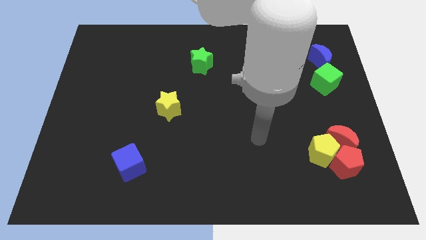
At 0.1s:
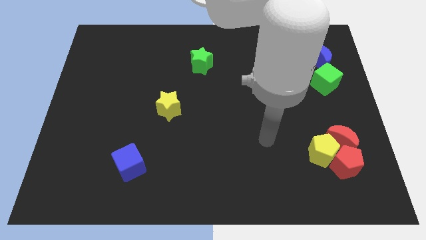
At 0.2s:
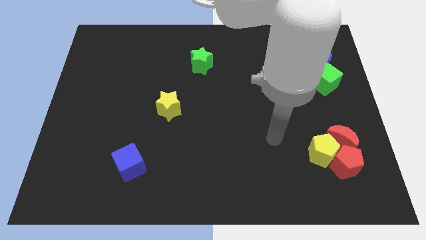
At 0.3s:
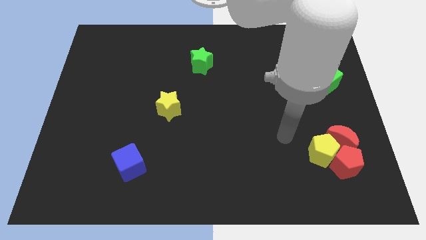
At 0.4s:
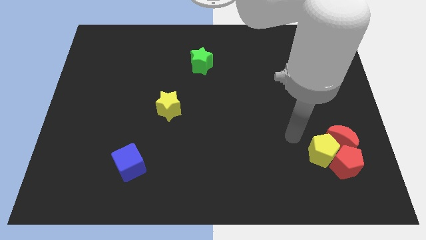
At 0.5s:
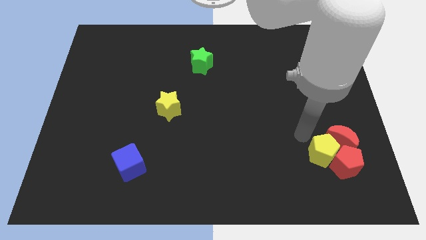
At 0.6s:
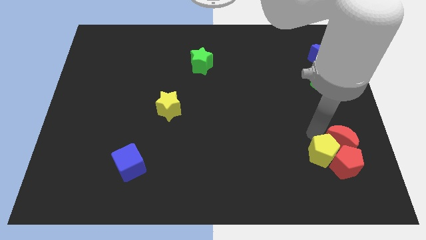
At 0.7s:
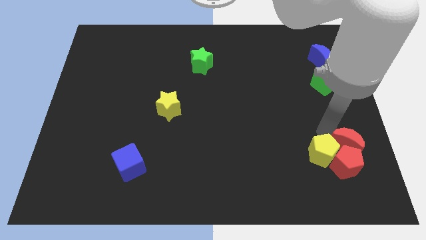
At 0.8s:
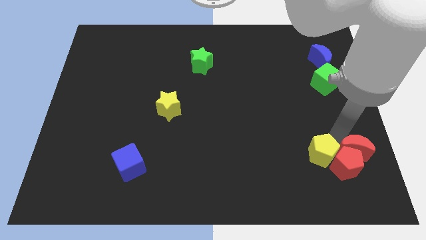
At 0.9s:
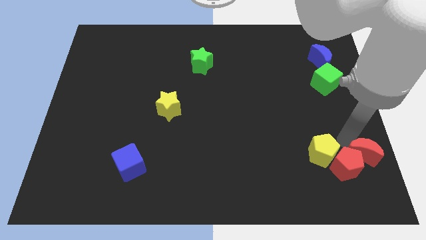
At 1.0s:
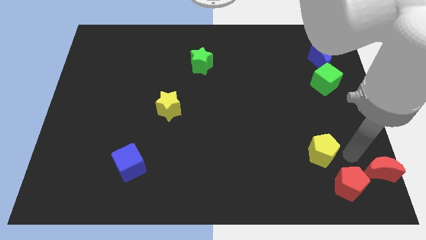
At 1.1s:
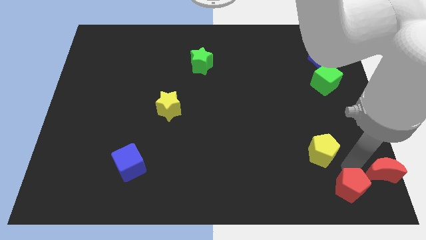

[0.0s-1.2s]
separate the yellow pentagon from the red pentagon and red moon

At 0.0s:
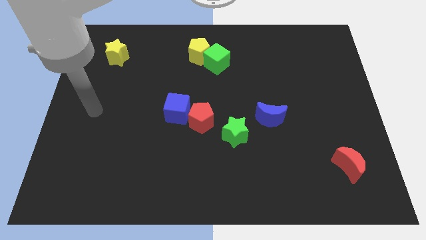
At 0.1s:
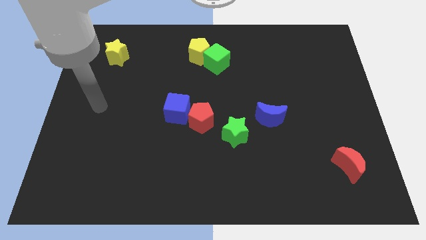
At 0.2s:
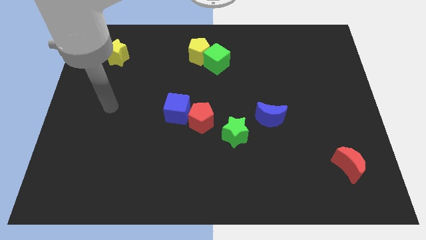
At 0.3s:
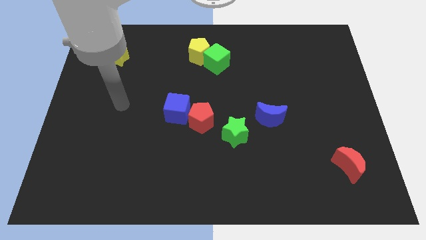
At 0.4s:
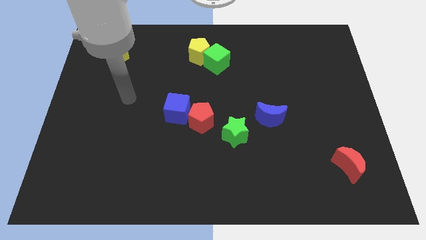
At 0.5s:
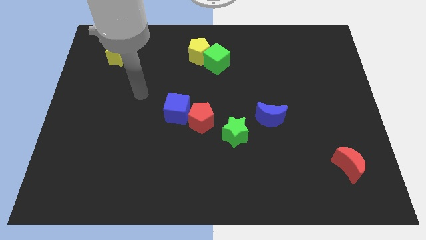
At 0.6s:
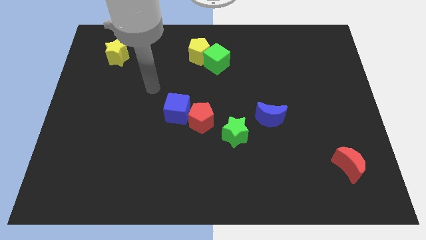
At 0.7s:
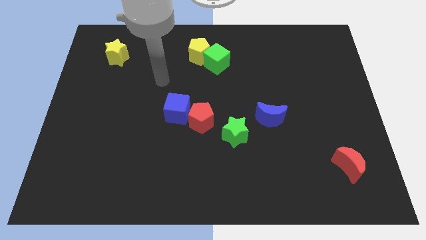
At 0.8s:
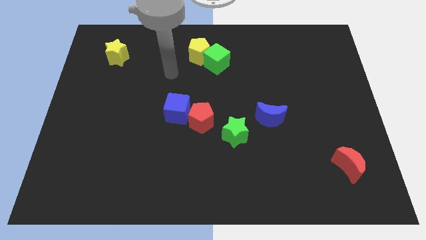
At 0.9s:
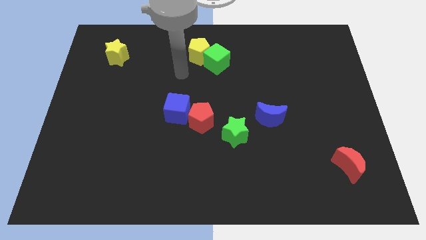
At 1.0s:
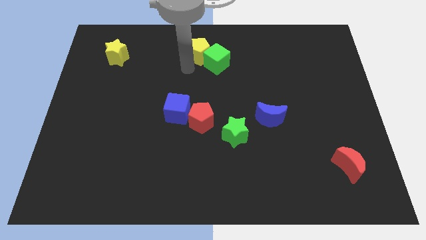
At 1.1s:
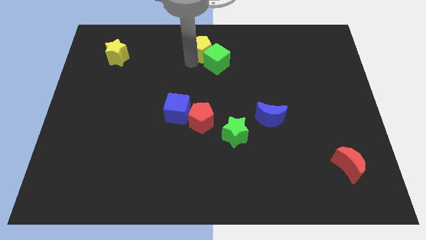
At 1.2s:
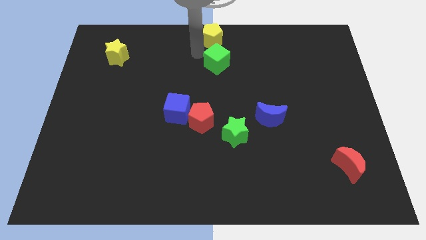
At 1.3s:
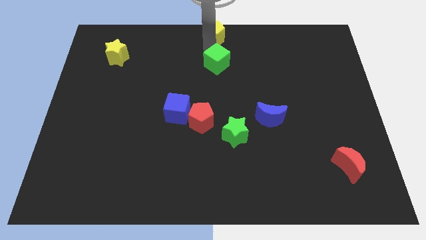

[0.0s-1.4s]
move the green cube away from the yellow pentagon

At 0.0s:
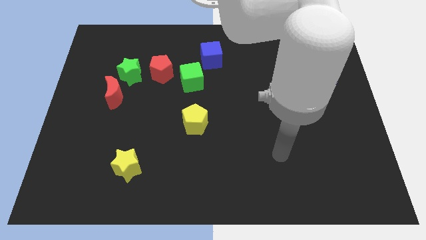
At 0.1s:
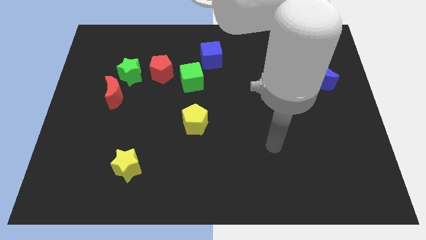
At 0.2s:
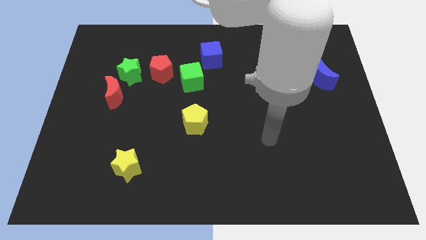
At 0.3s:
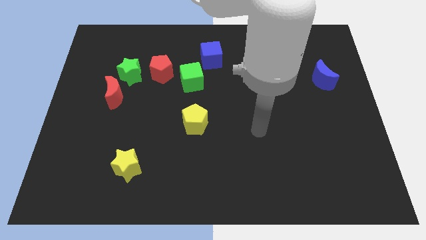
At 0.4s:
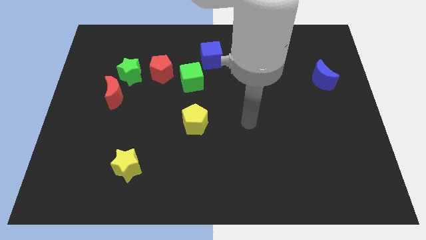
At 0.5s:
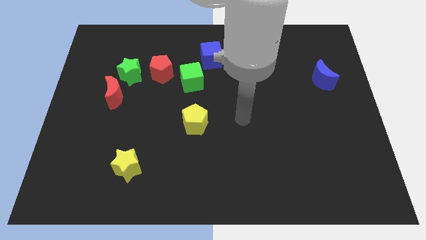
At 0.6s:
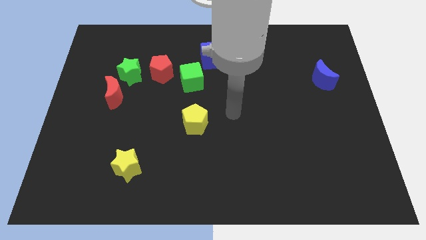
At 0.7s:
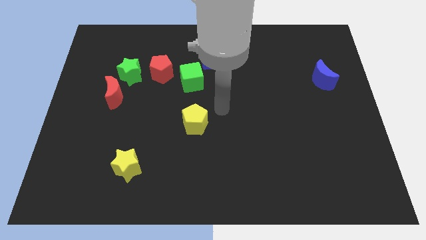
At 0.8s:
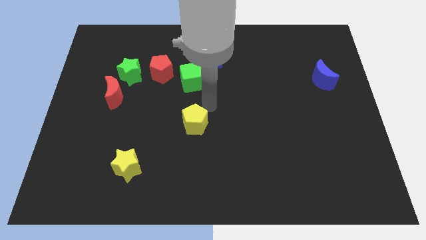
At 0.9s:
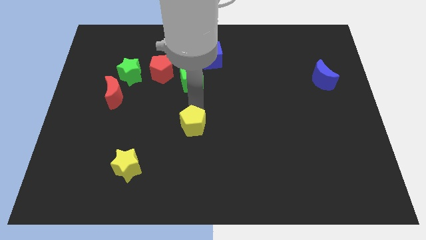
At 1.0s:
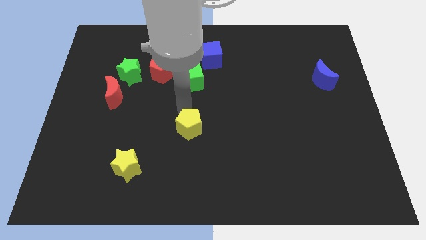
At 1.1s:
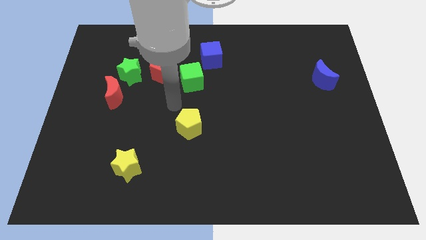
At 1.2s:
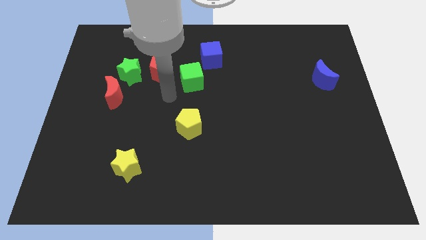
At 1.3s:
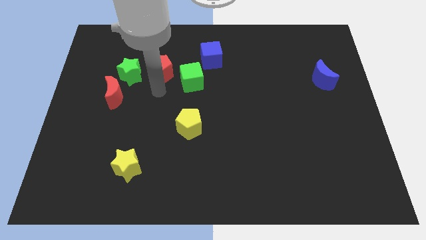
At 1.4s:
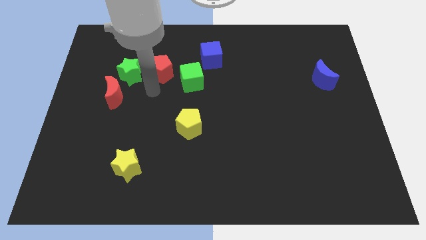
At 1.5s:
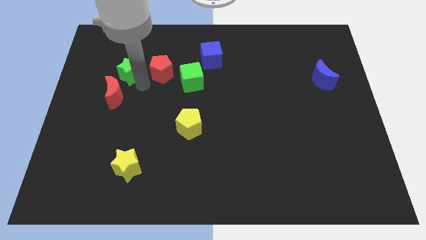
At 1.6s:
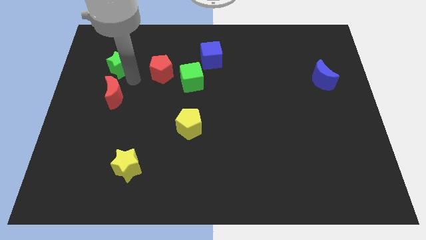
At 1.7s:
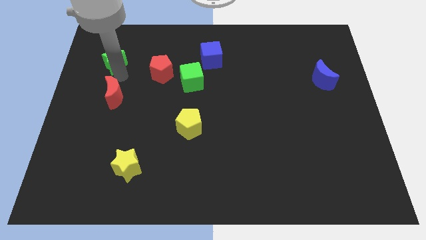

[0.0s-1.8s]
move the red moon away from the green star

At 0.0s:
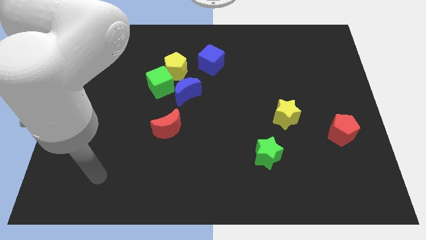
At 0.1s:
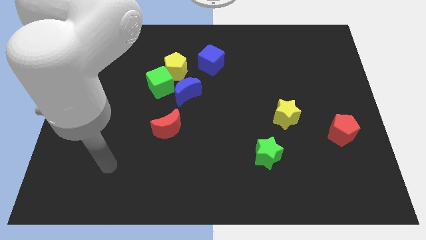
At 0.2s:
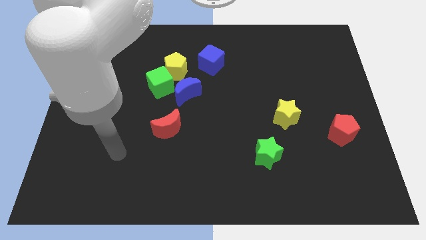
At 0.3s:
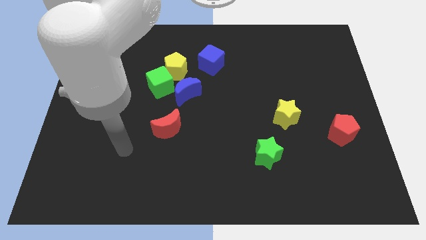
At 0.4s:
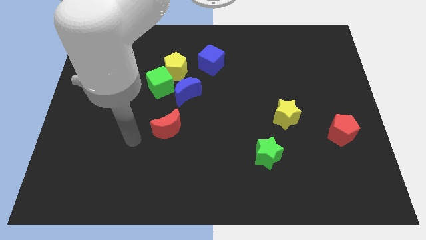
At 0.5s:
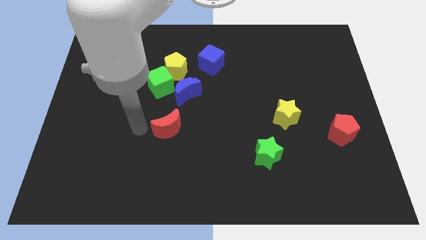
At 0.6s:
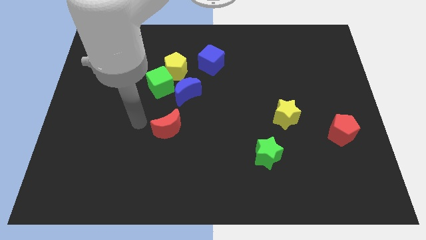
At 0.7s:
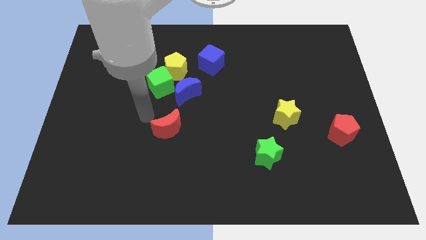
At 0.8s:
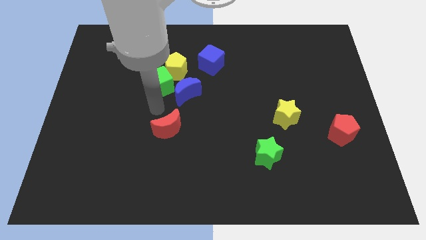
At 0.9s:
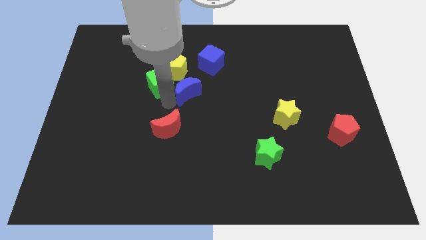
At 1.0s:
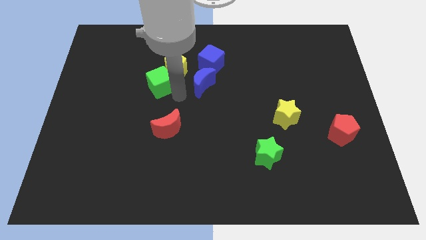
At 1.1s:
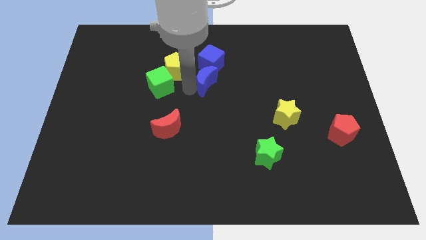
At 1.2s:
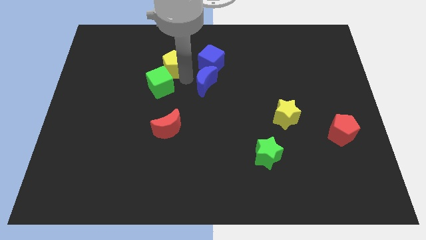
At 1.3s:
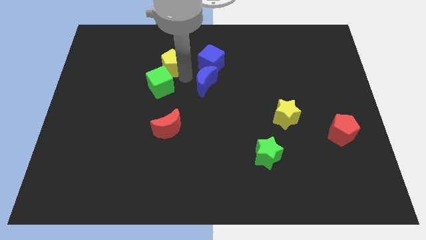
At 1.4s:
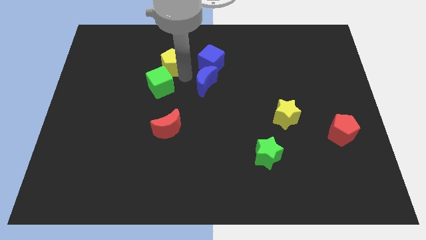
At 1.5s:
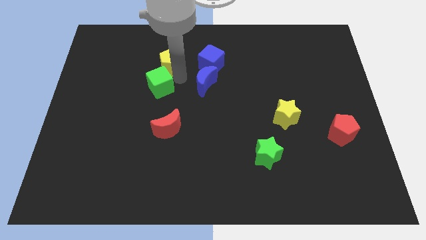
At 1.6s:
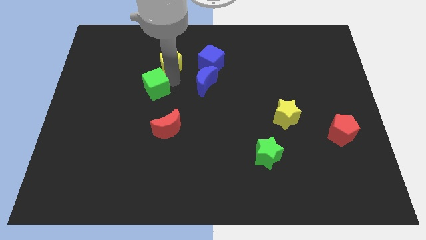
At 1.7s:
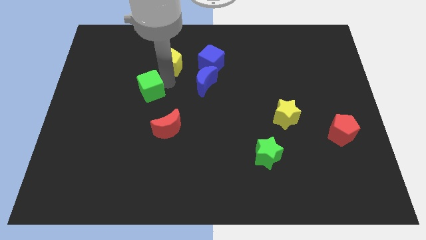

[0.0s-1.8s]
pull the green cube apart from the yellow pentagon and blue moon

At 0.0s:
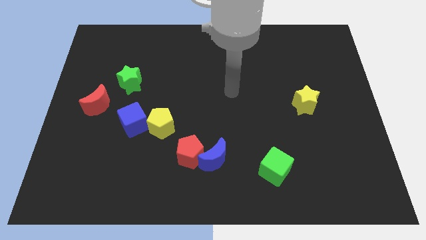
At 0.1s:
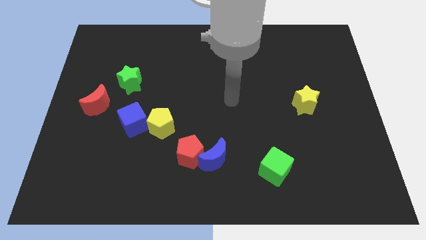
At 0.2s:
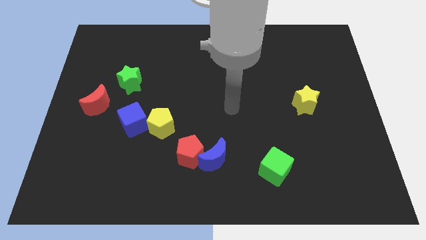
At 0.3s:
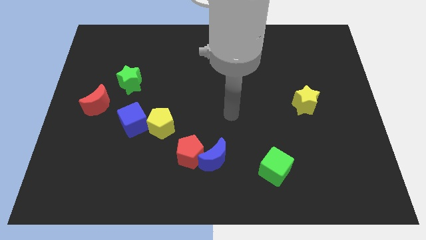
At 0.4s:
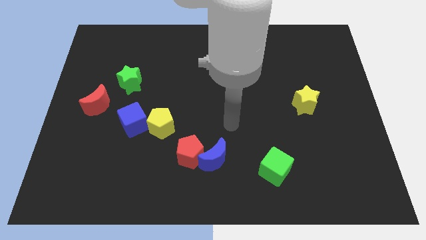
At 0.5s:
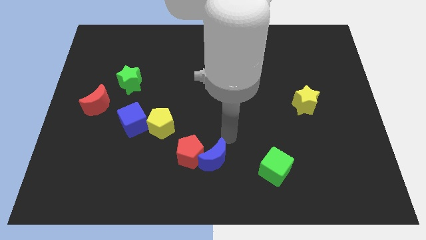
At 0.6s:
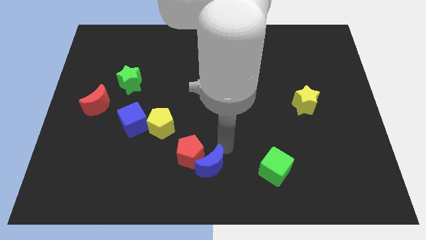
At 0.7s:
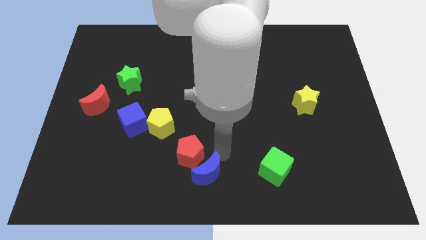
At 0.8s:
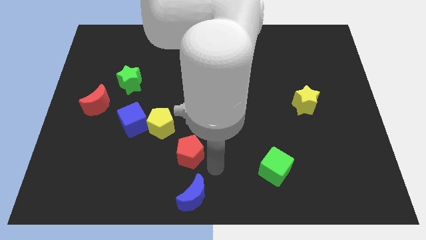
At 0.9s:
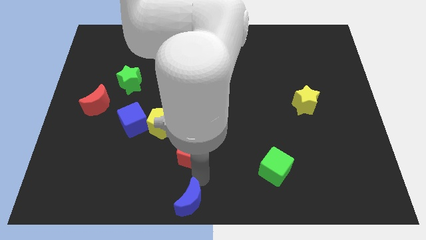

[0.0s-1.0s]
separate the red pentagon from the blue moon

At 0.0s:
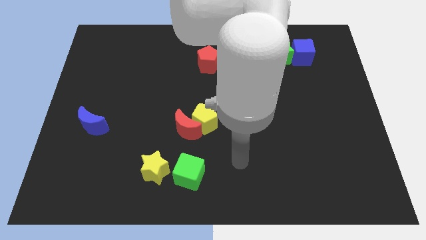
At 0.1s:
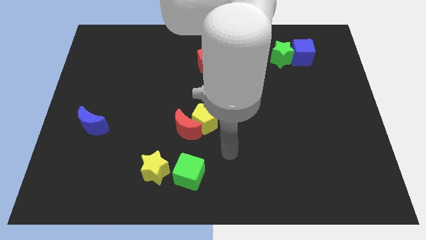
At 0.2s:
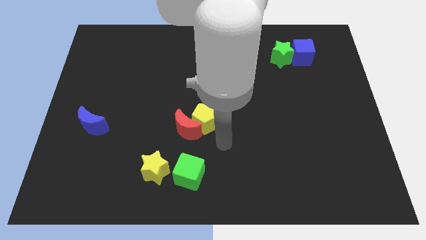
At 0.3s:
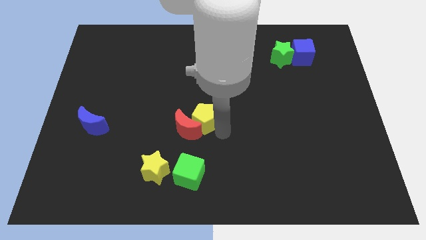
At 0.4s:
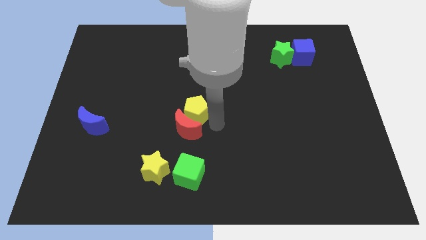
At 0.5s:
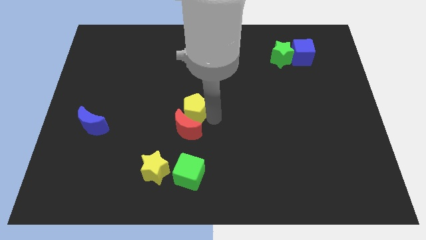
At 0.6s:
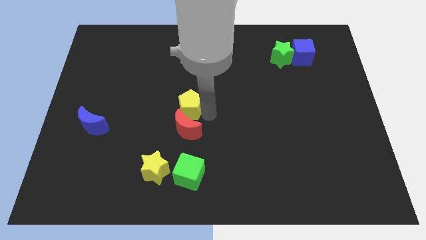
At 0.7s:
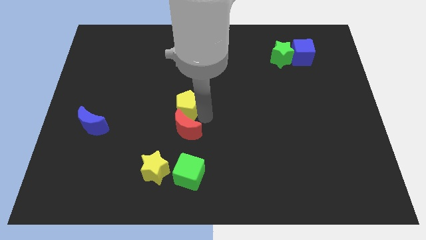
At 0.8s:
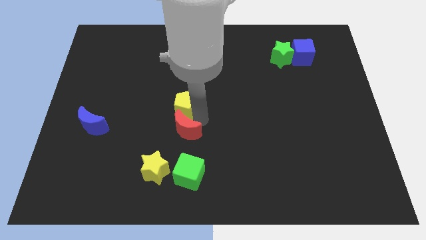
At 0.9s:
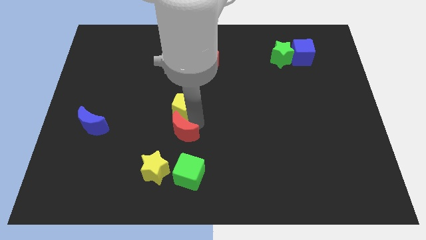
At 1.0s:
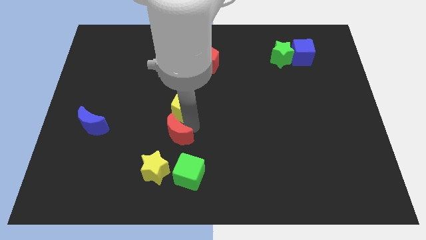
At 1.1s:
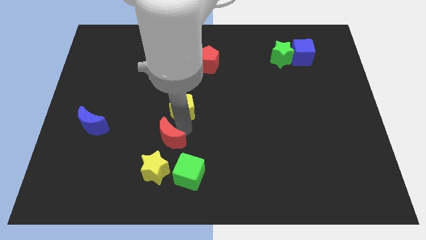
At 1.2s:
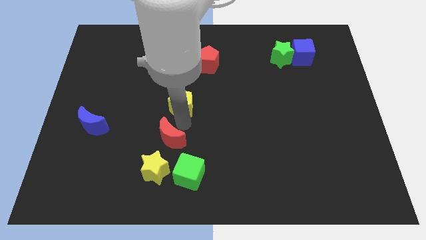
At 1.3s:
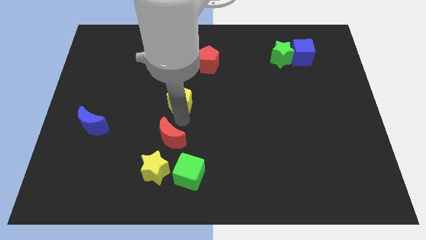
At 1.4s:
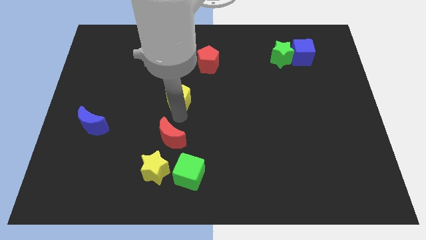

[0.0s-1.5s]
separate the red moon from the yellow pentagon

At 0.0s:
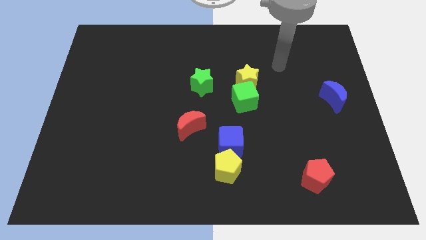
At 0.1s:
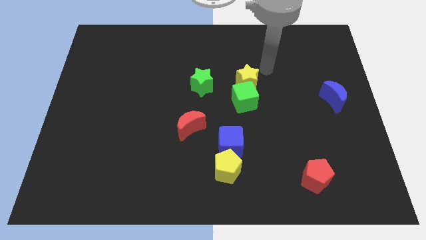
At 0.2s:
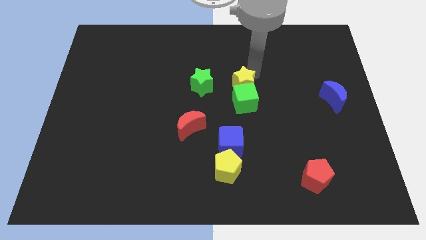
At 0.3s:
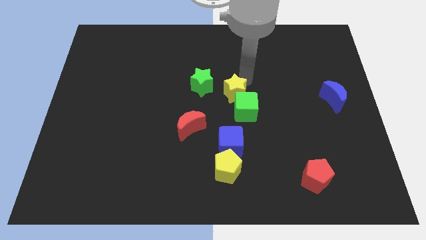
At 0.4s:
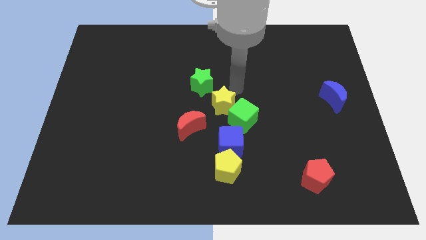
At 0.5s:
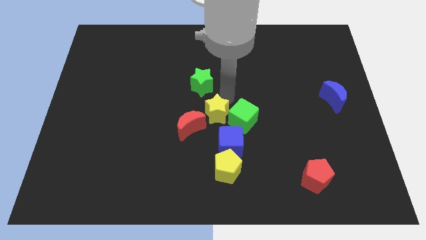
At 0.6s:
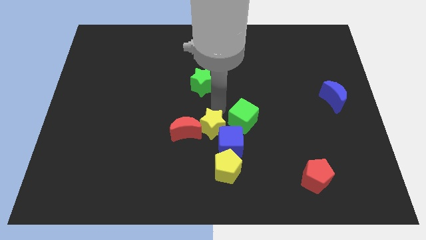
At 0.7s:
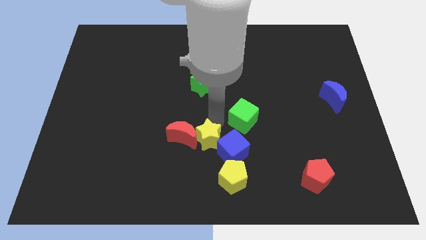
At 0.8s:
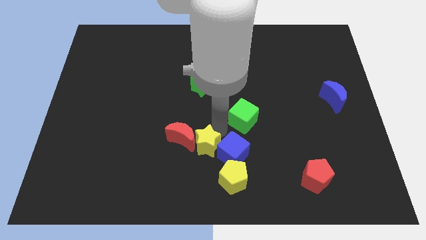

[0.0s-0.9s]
separate the green cube from the yellow star
